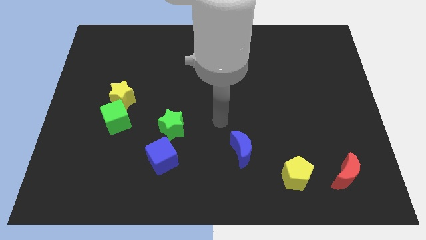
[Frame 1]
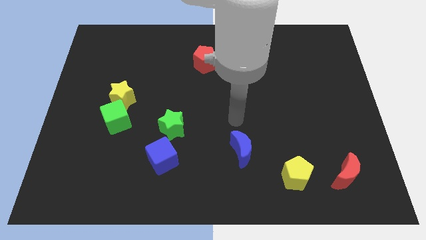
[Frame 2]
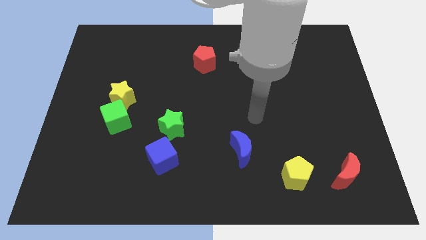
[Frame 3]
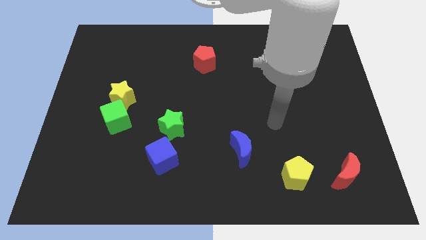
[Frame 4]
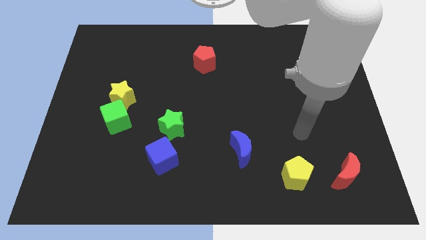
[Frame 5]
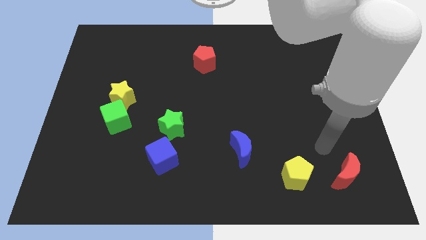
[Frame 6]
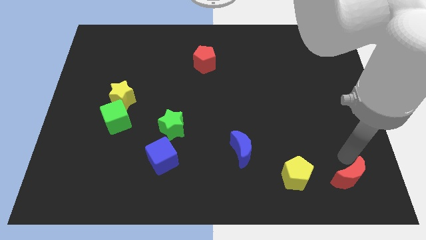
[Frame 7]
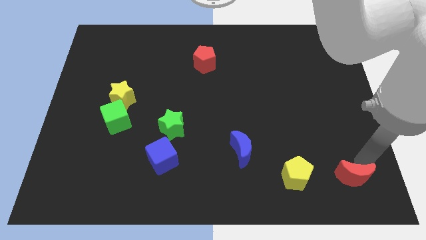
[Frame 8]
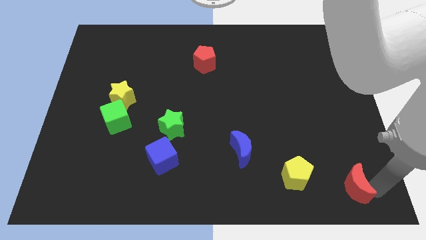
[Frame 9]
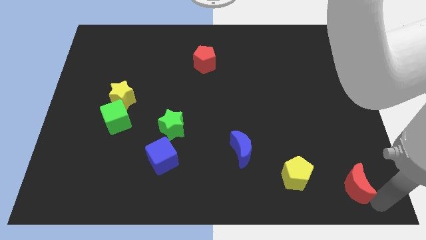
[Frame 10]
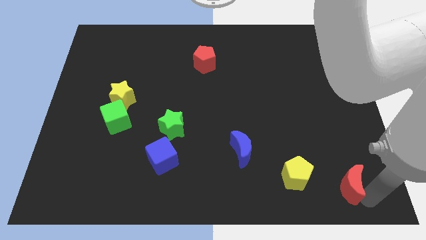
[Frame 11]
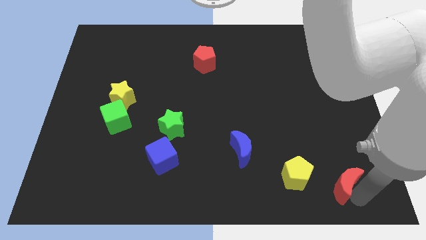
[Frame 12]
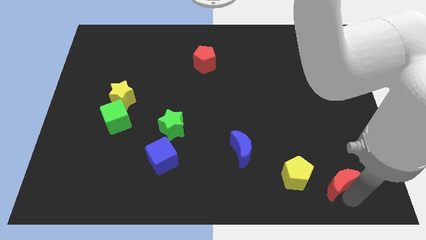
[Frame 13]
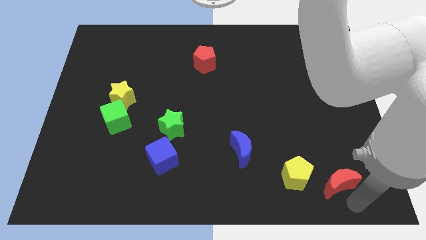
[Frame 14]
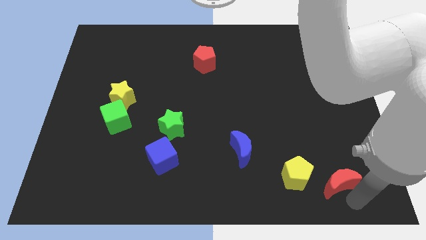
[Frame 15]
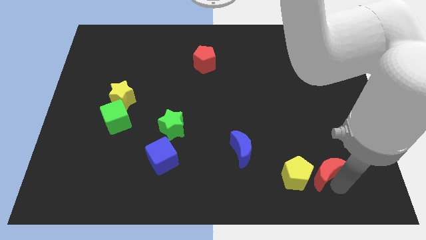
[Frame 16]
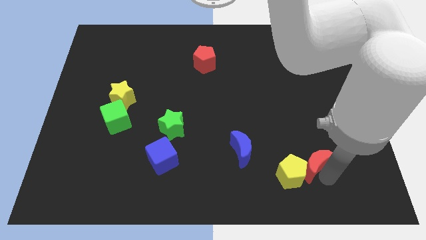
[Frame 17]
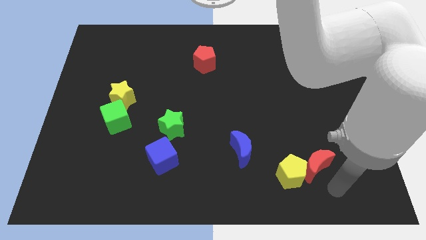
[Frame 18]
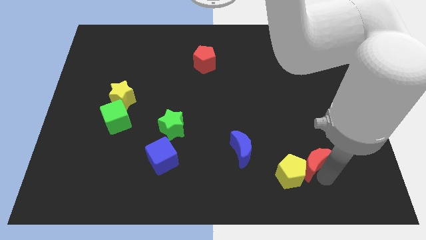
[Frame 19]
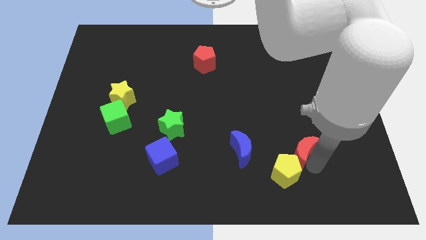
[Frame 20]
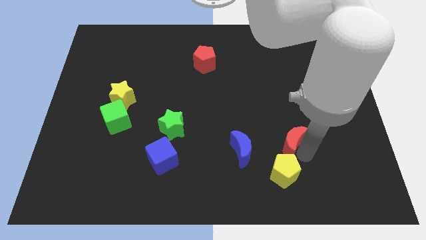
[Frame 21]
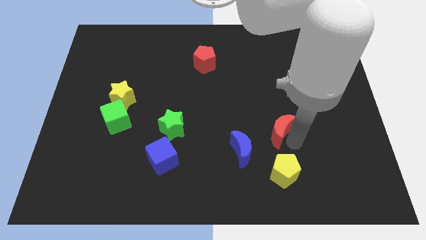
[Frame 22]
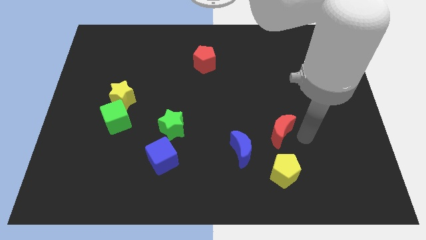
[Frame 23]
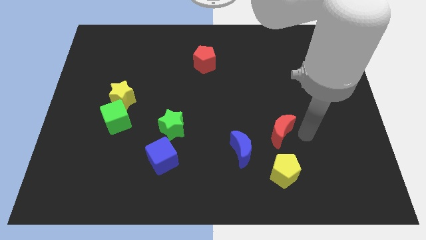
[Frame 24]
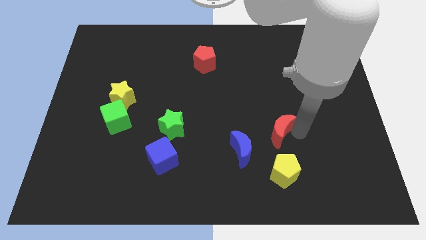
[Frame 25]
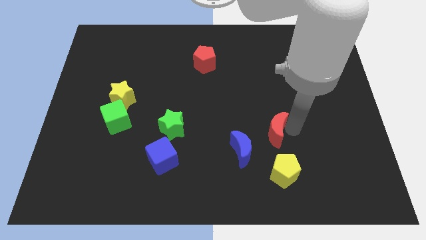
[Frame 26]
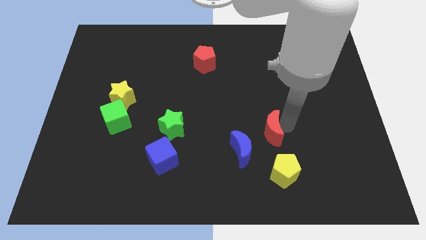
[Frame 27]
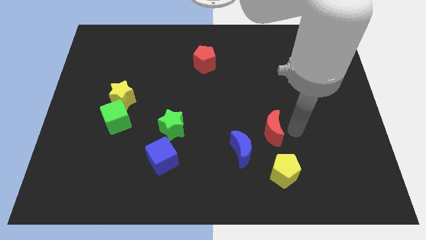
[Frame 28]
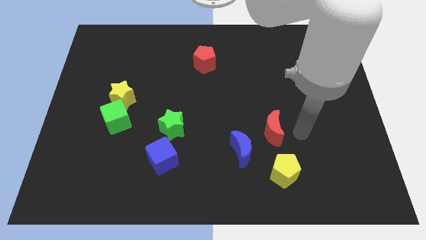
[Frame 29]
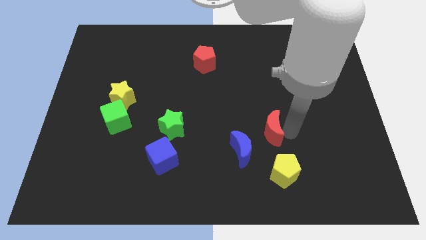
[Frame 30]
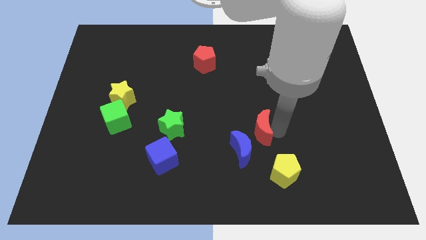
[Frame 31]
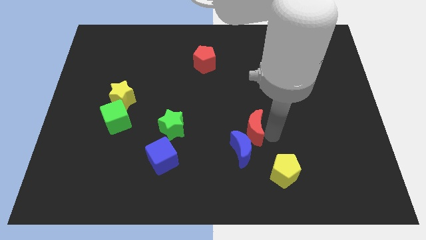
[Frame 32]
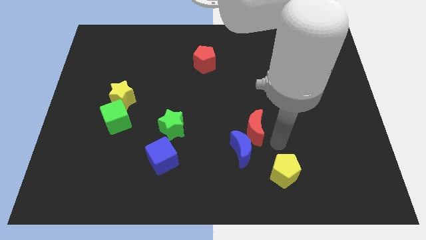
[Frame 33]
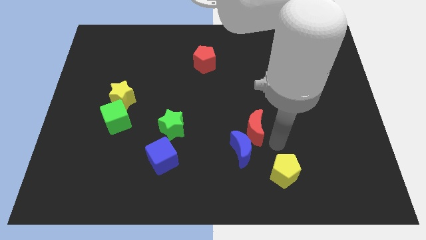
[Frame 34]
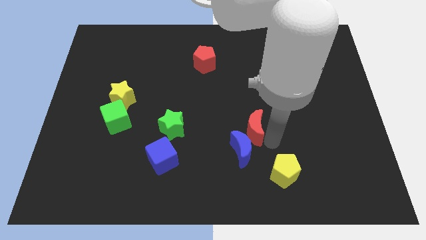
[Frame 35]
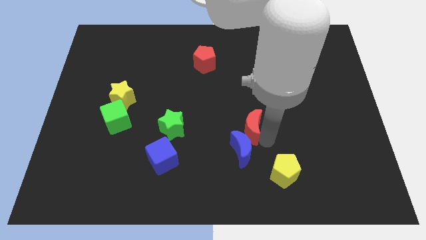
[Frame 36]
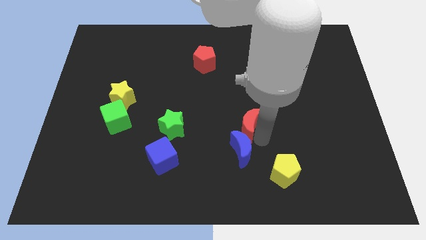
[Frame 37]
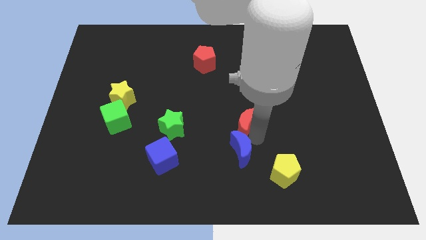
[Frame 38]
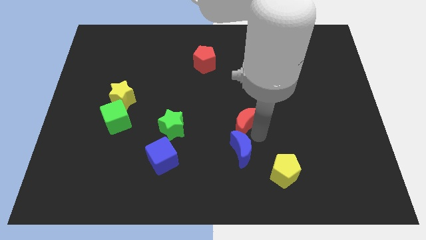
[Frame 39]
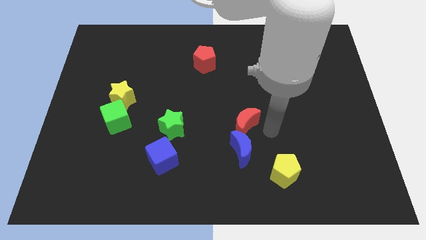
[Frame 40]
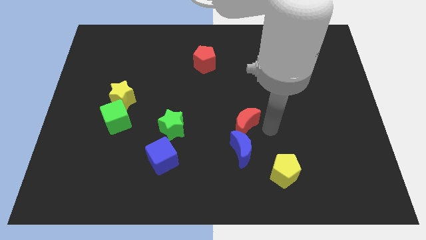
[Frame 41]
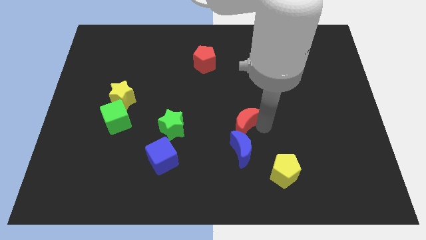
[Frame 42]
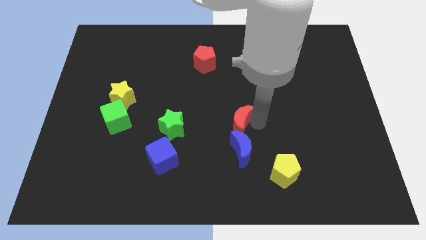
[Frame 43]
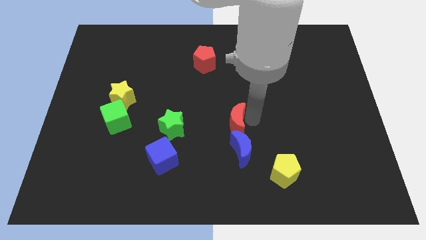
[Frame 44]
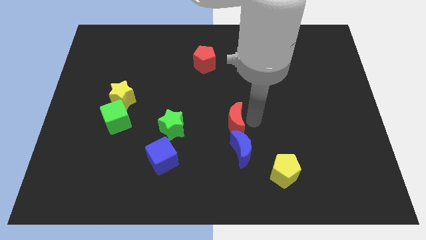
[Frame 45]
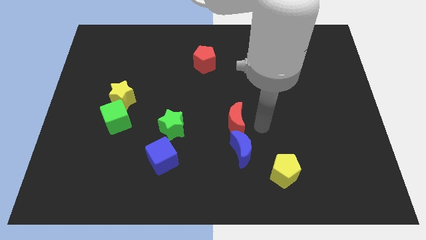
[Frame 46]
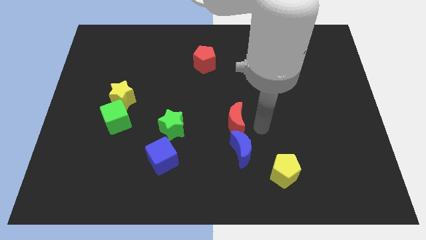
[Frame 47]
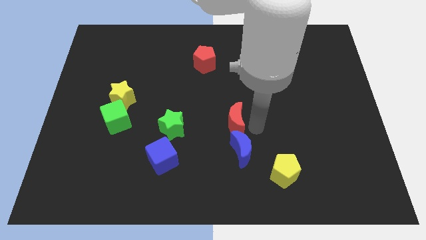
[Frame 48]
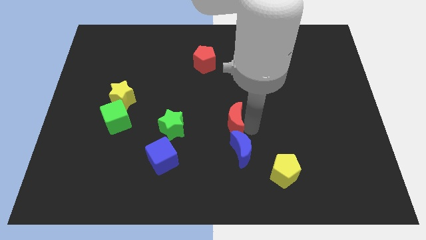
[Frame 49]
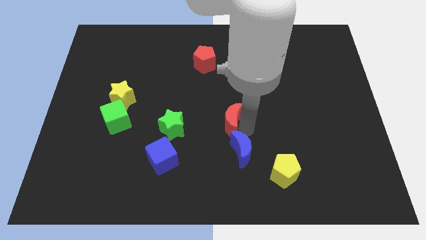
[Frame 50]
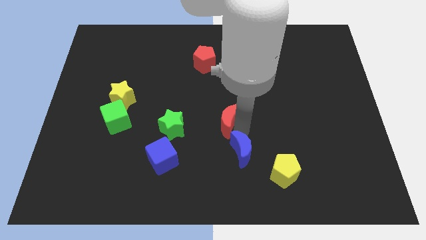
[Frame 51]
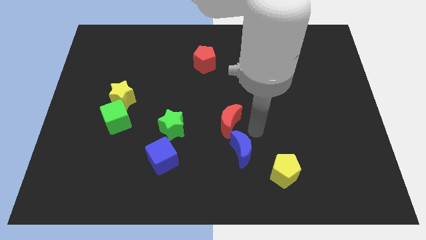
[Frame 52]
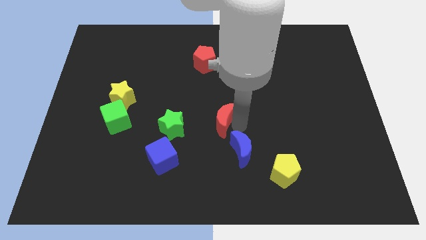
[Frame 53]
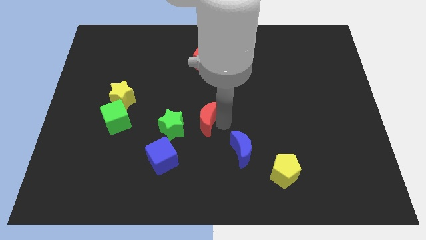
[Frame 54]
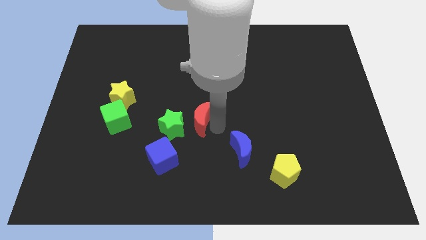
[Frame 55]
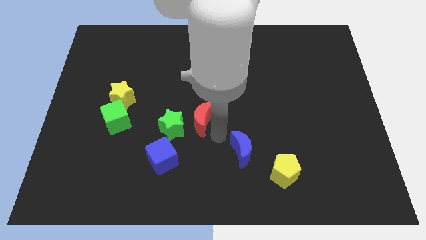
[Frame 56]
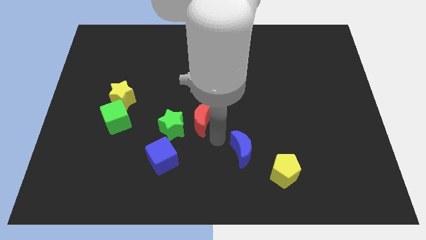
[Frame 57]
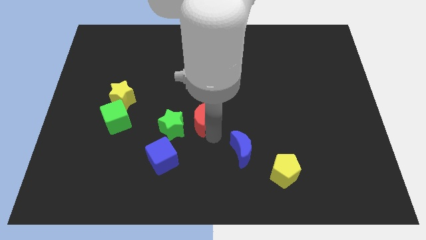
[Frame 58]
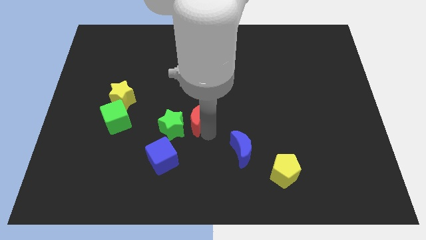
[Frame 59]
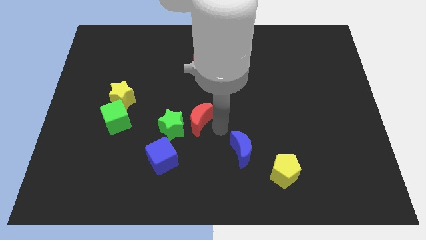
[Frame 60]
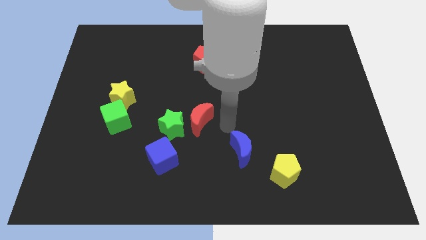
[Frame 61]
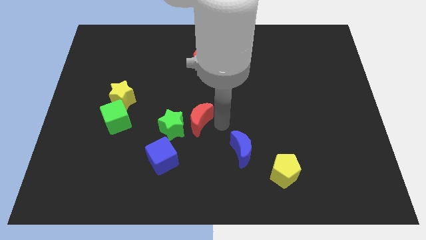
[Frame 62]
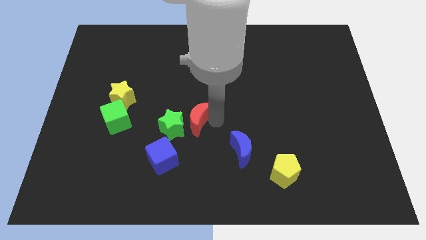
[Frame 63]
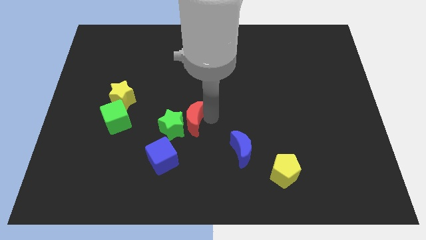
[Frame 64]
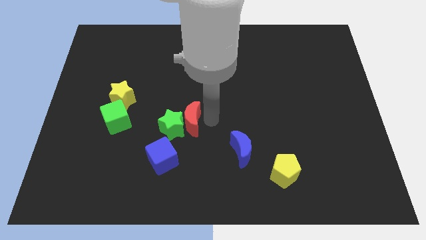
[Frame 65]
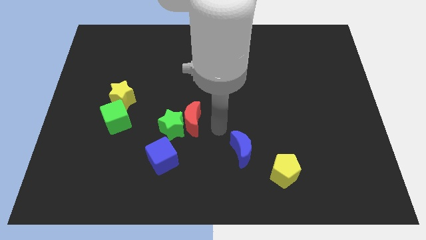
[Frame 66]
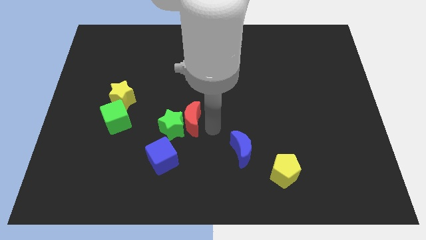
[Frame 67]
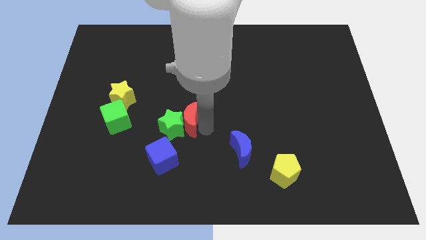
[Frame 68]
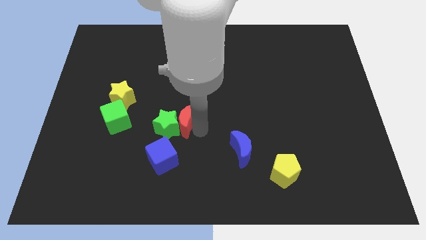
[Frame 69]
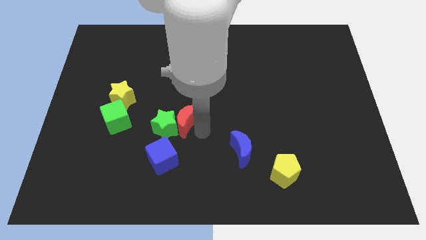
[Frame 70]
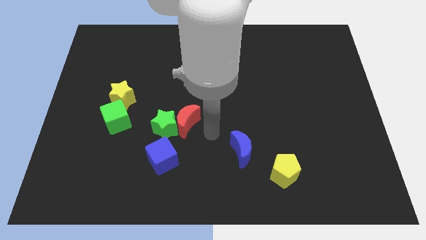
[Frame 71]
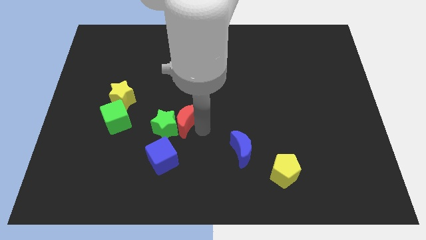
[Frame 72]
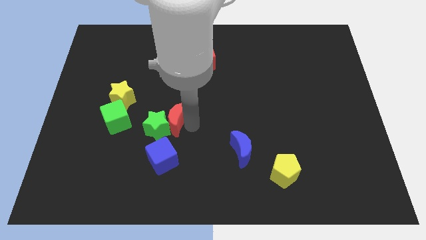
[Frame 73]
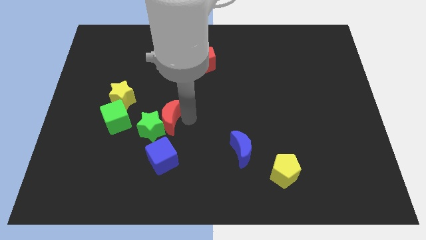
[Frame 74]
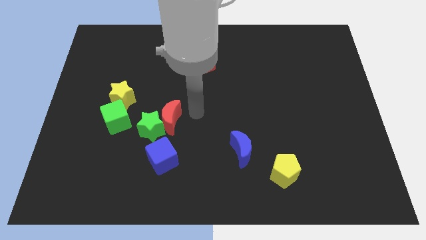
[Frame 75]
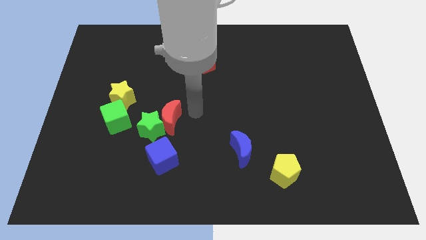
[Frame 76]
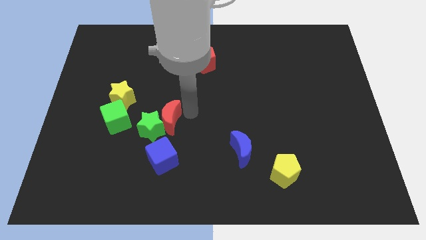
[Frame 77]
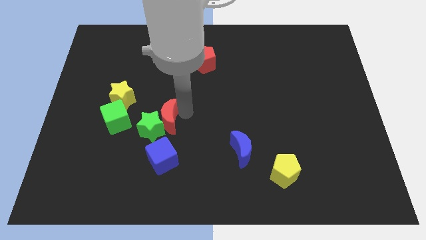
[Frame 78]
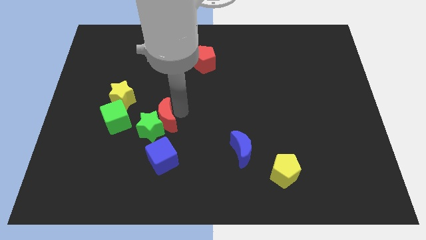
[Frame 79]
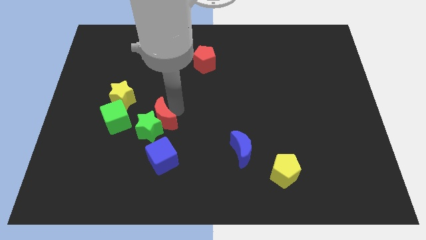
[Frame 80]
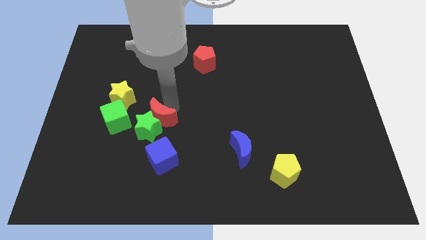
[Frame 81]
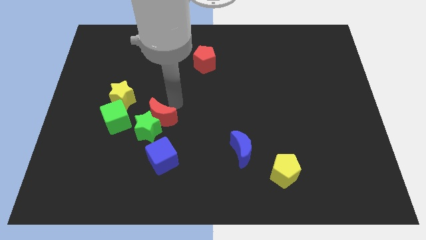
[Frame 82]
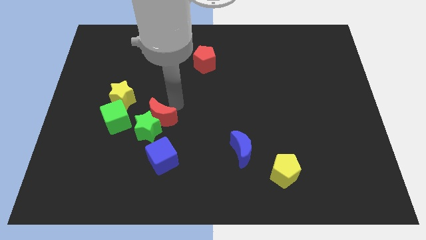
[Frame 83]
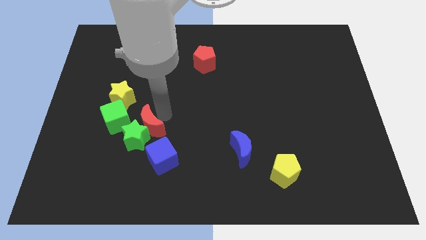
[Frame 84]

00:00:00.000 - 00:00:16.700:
push the red moon to the bottom right of the green cube
